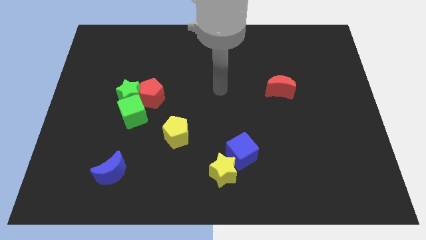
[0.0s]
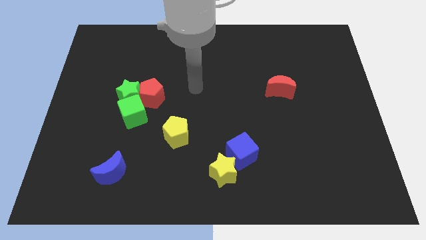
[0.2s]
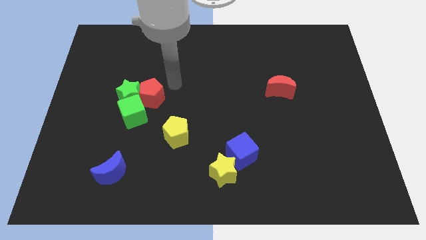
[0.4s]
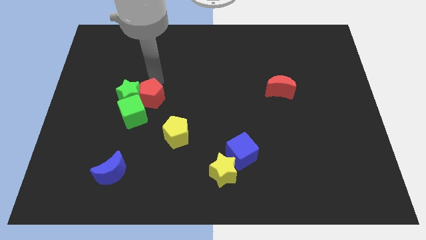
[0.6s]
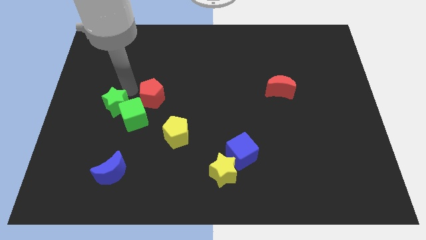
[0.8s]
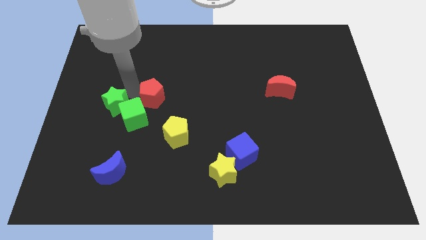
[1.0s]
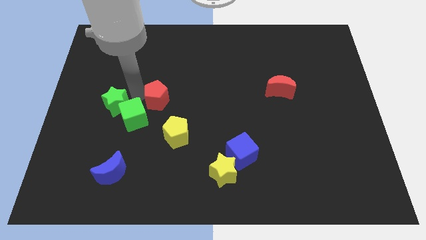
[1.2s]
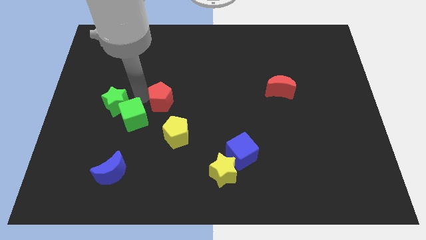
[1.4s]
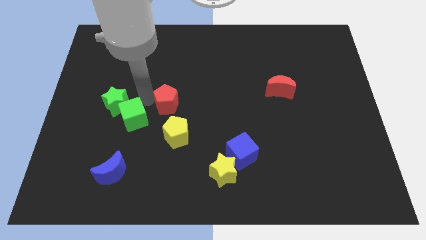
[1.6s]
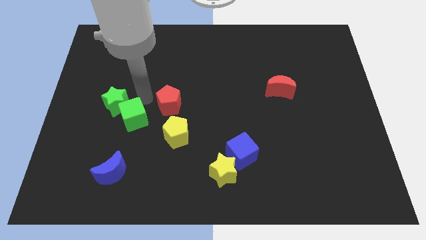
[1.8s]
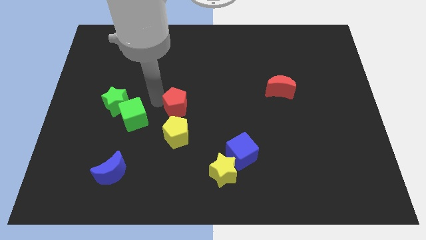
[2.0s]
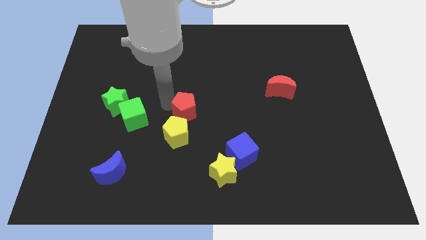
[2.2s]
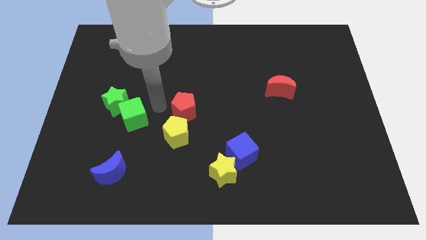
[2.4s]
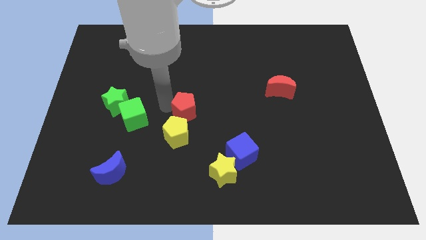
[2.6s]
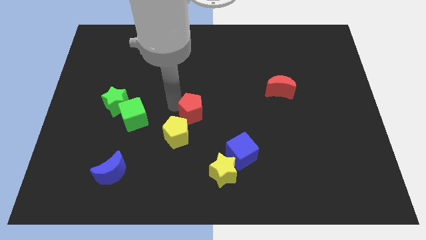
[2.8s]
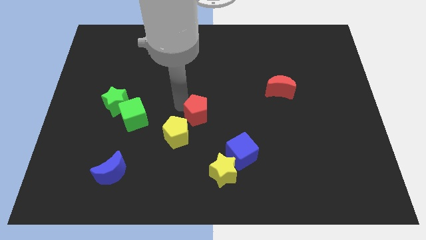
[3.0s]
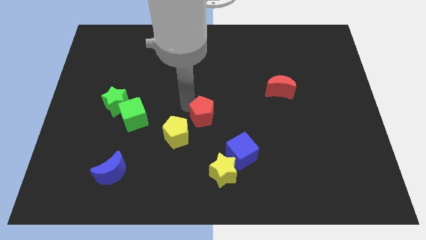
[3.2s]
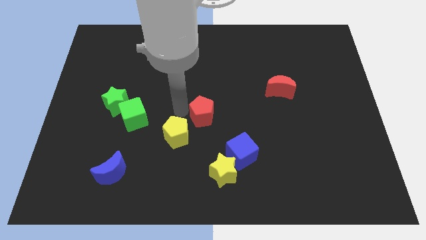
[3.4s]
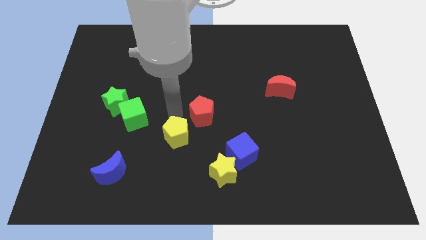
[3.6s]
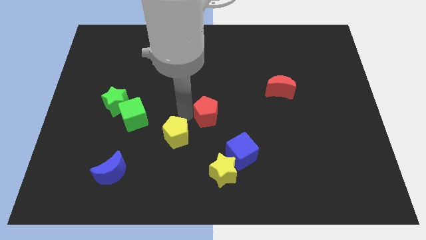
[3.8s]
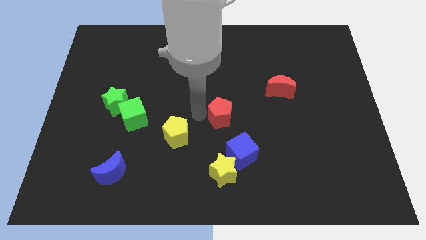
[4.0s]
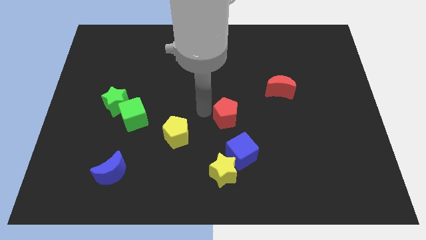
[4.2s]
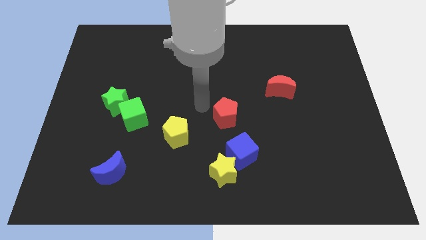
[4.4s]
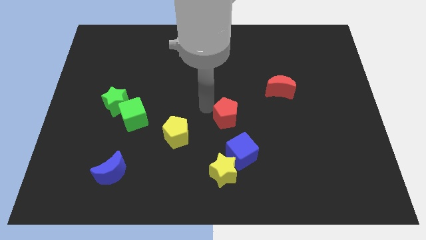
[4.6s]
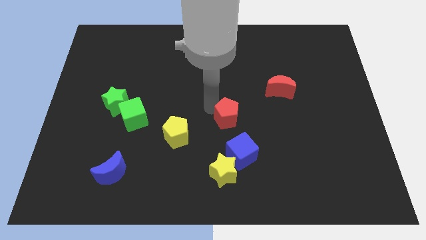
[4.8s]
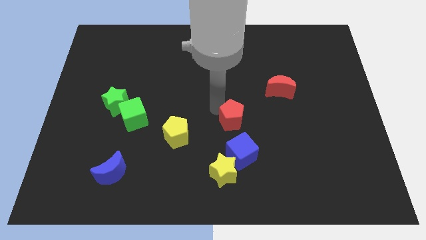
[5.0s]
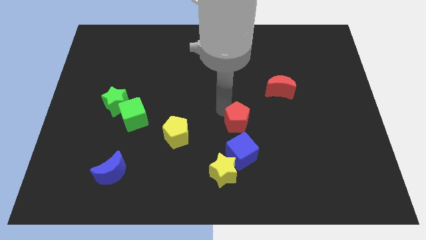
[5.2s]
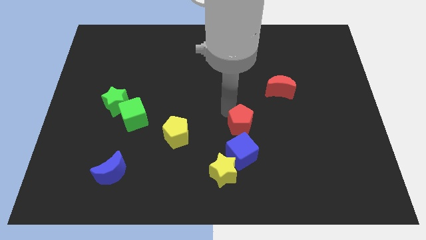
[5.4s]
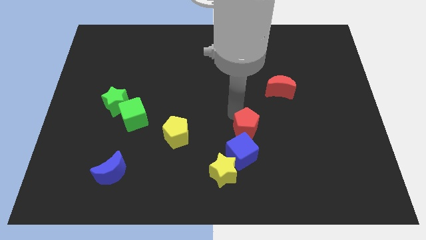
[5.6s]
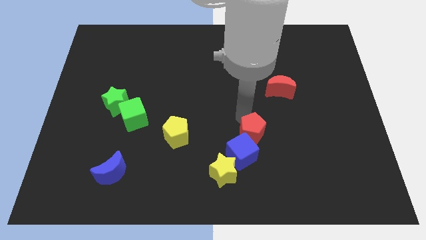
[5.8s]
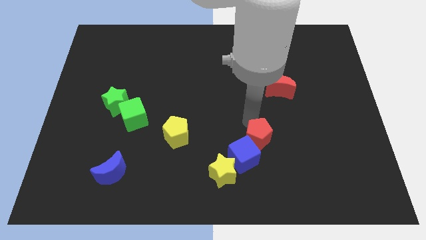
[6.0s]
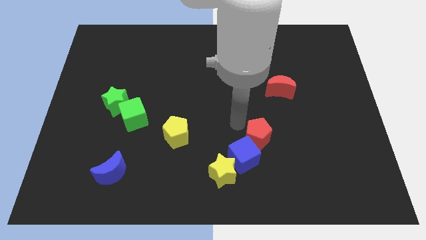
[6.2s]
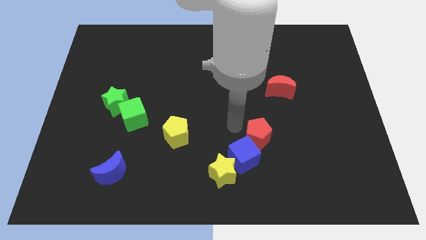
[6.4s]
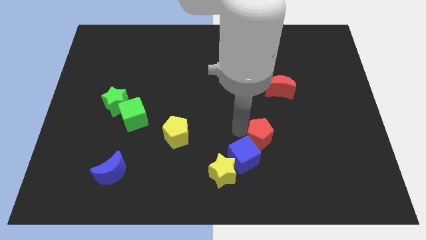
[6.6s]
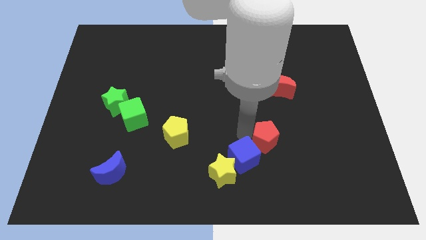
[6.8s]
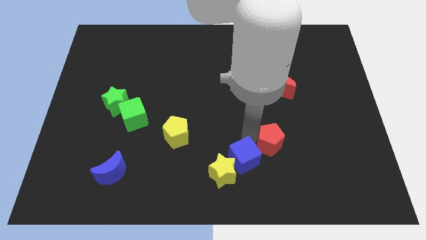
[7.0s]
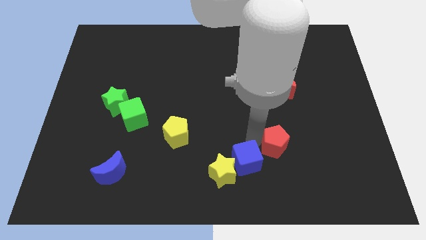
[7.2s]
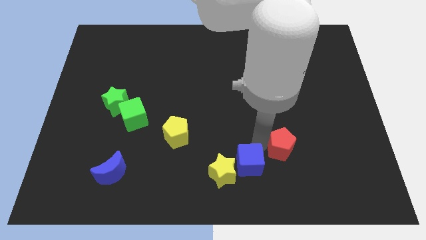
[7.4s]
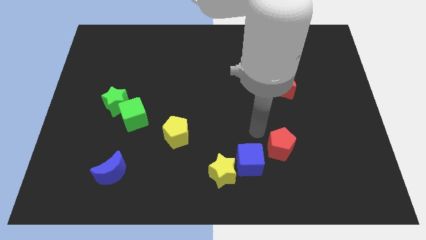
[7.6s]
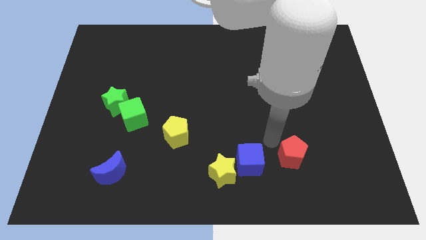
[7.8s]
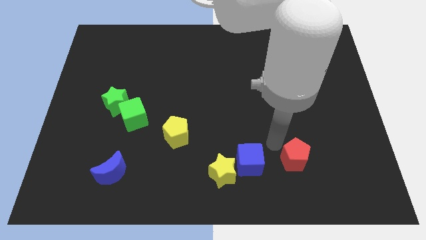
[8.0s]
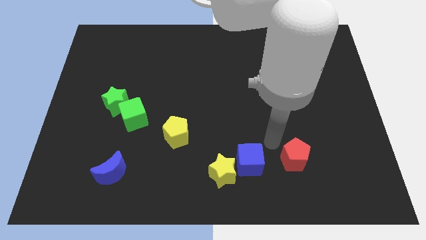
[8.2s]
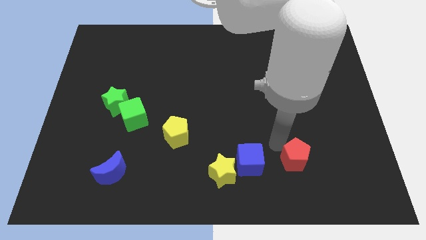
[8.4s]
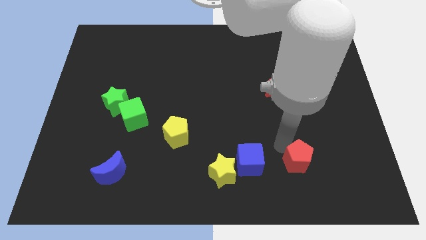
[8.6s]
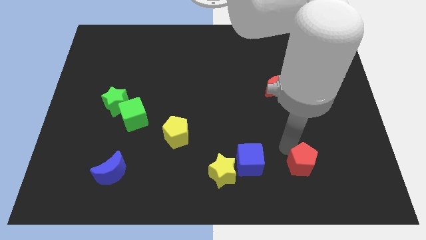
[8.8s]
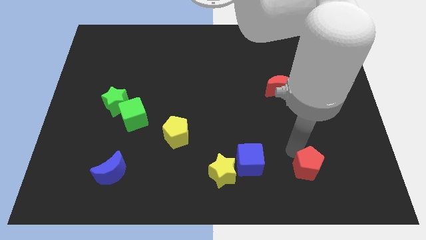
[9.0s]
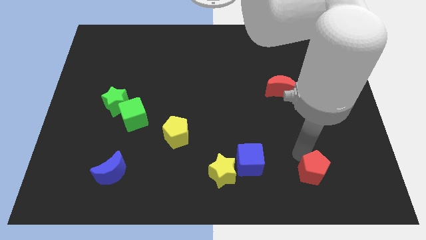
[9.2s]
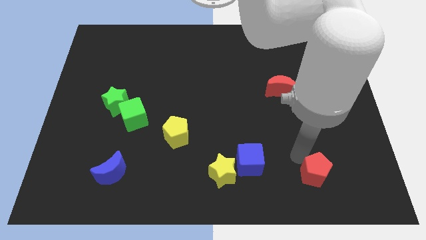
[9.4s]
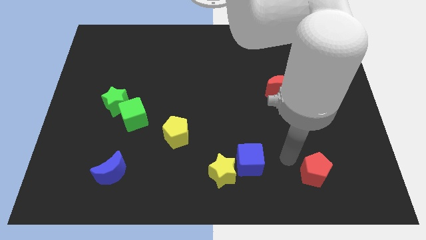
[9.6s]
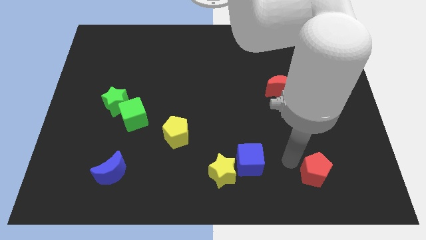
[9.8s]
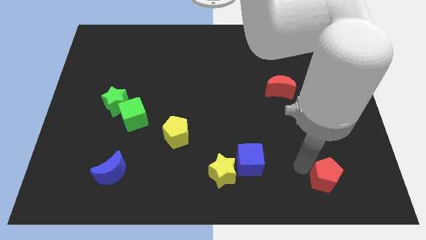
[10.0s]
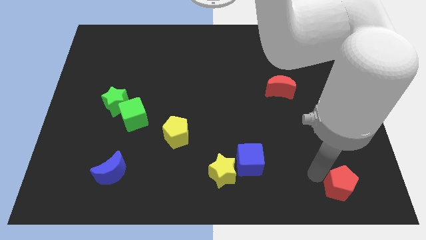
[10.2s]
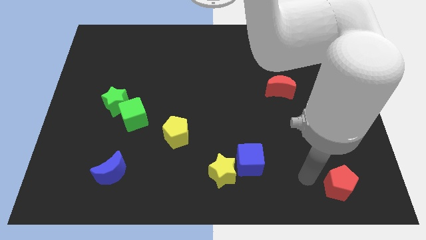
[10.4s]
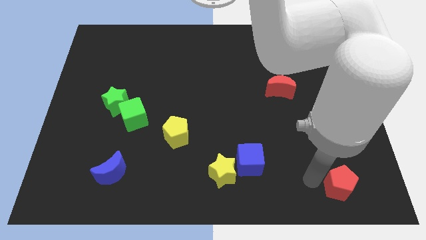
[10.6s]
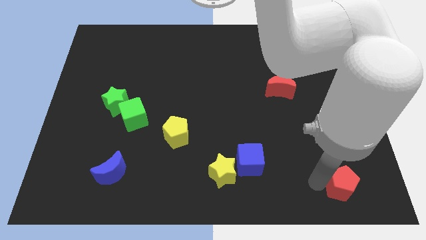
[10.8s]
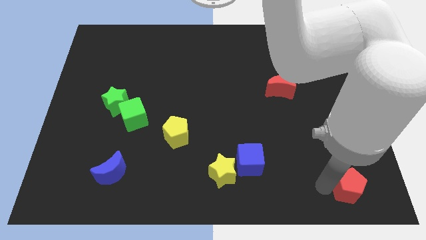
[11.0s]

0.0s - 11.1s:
put the red pentagon to the bottom right

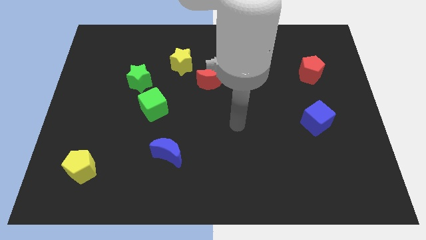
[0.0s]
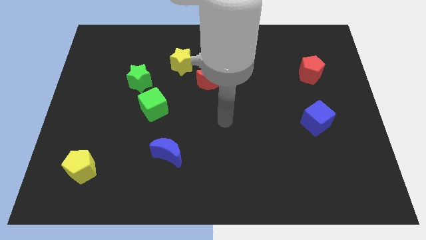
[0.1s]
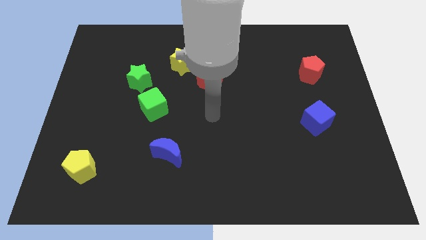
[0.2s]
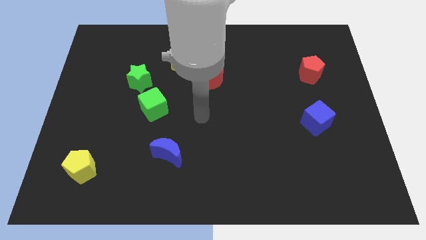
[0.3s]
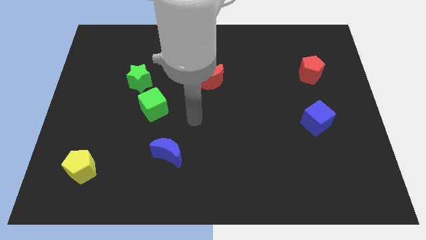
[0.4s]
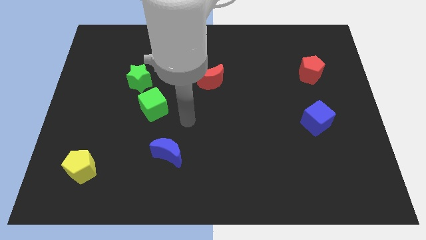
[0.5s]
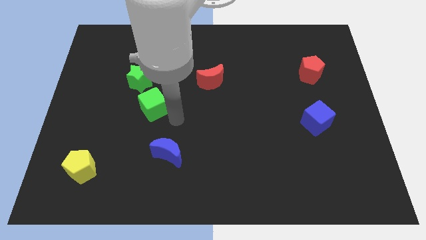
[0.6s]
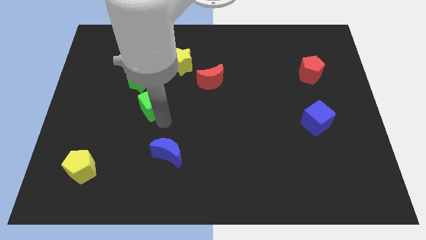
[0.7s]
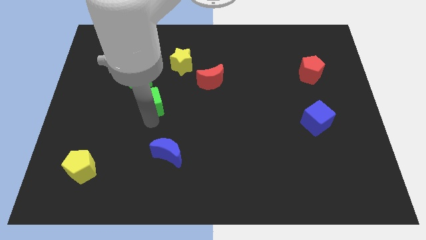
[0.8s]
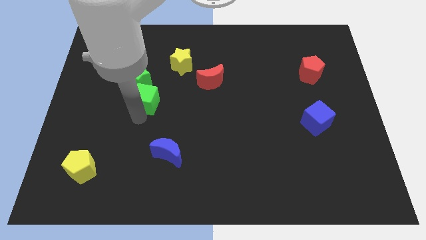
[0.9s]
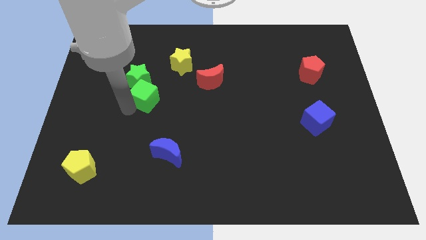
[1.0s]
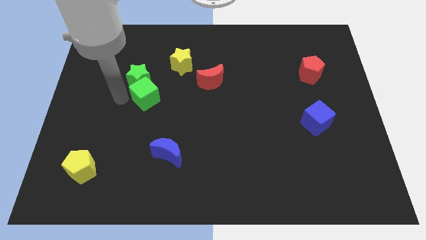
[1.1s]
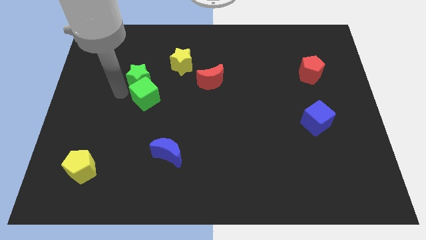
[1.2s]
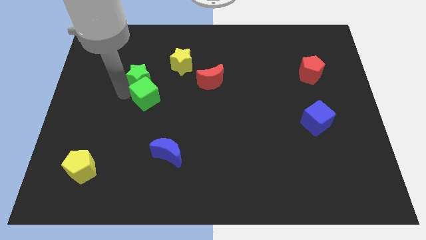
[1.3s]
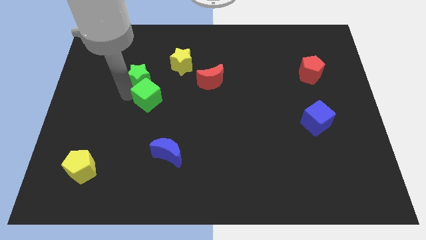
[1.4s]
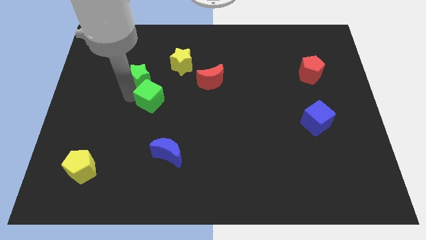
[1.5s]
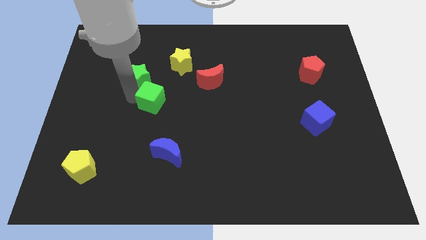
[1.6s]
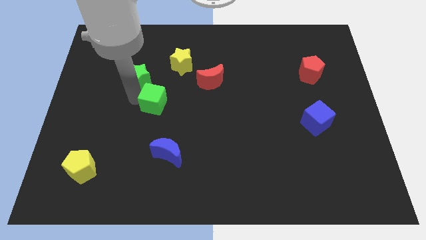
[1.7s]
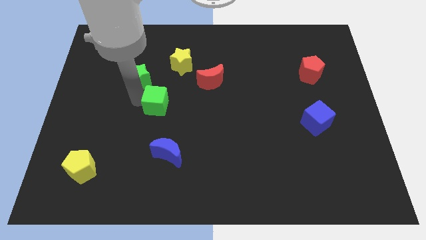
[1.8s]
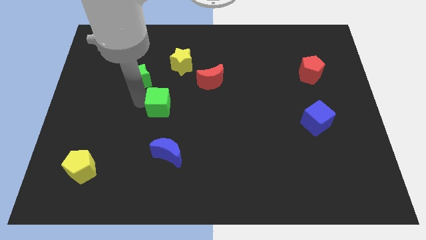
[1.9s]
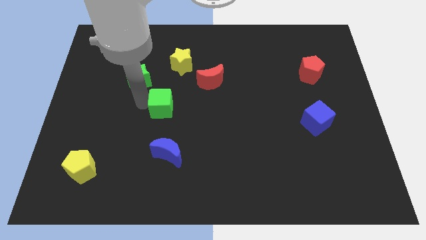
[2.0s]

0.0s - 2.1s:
move the green cube to the middle of the board
